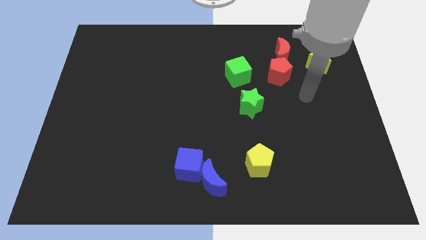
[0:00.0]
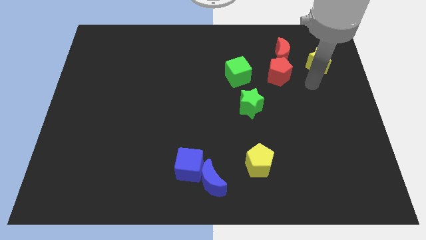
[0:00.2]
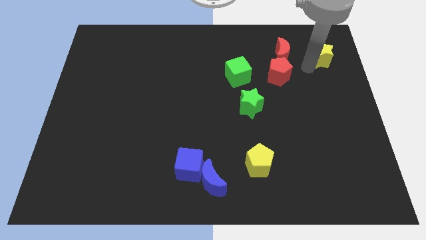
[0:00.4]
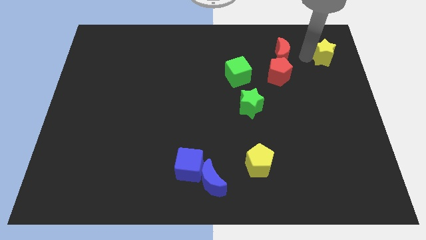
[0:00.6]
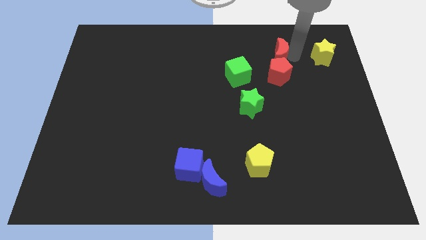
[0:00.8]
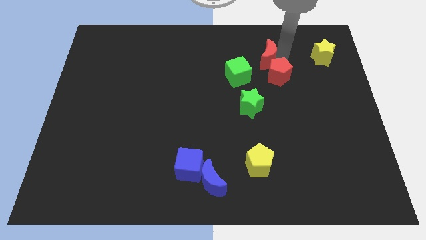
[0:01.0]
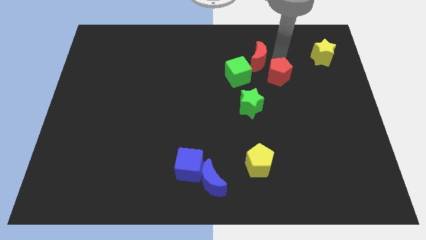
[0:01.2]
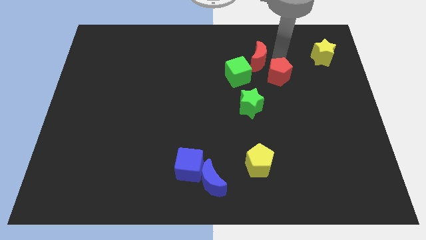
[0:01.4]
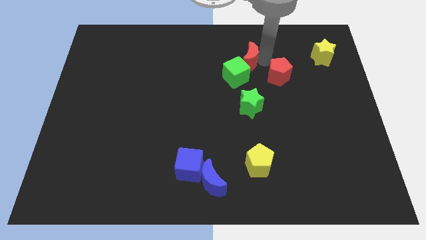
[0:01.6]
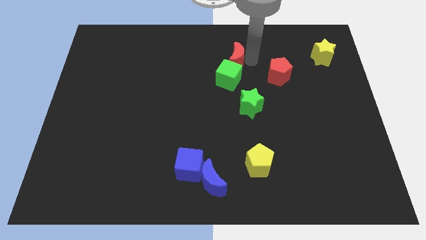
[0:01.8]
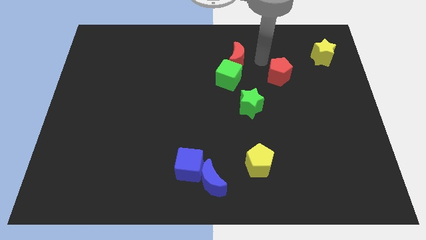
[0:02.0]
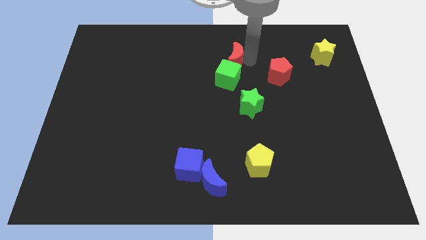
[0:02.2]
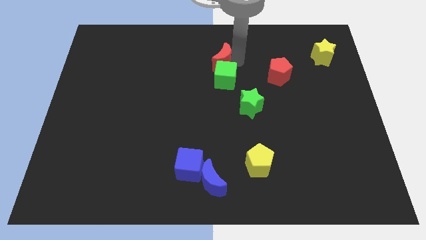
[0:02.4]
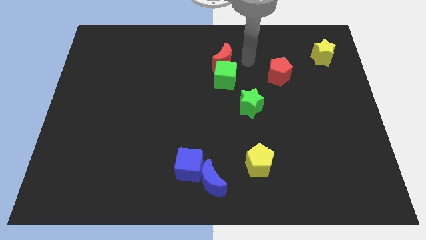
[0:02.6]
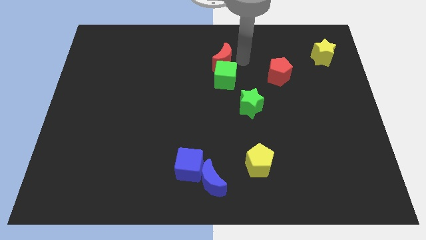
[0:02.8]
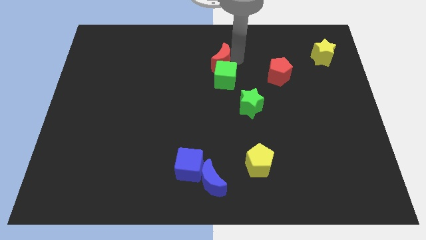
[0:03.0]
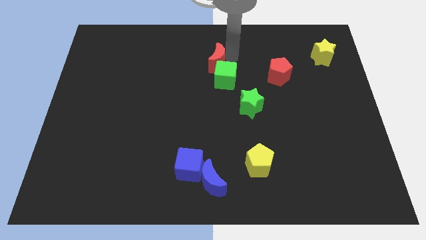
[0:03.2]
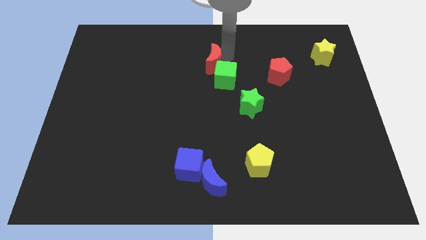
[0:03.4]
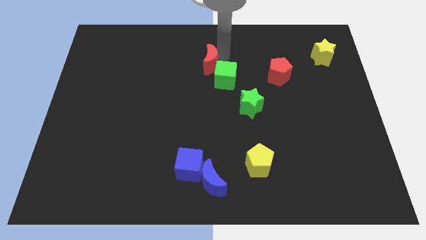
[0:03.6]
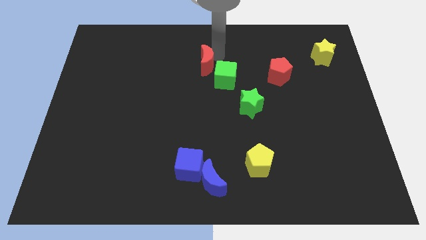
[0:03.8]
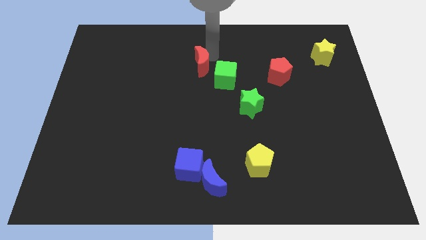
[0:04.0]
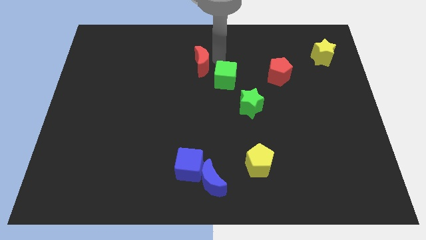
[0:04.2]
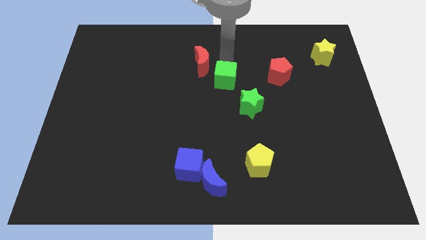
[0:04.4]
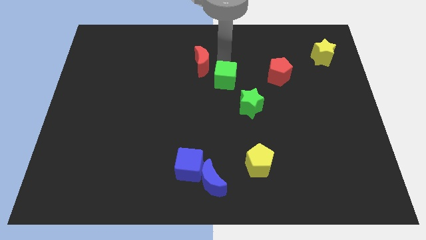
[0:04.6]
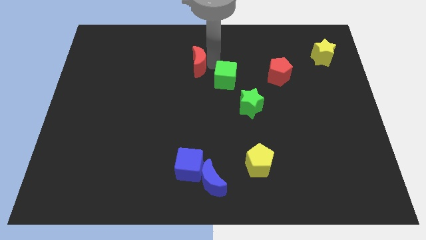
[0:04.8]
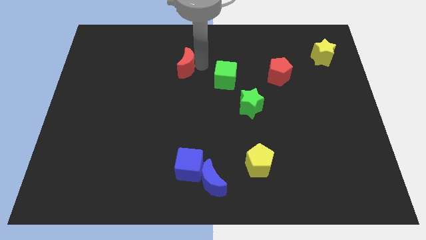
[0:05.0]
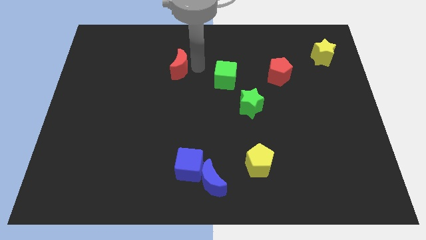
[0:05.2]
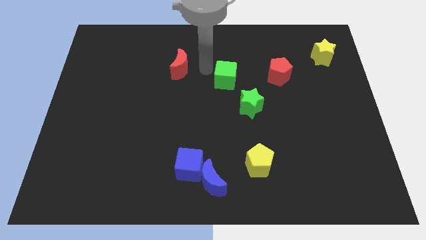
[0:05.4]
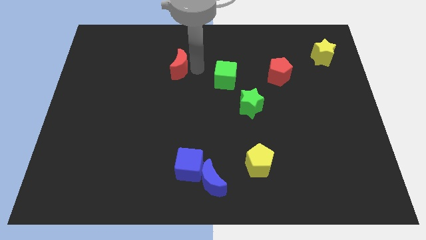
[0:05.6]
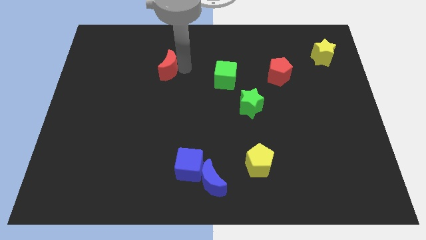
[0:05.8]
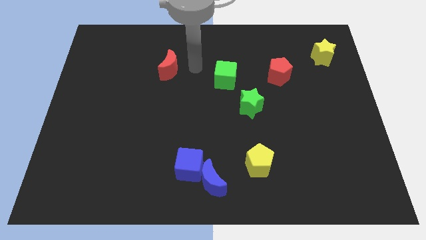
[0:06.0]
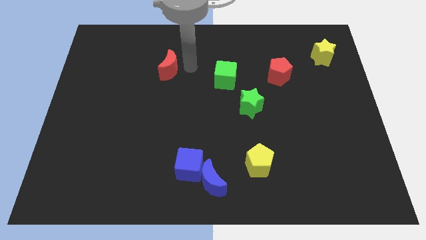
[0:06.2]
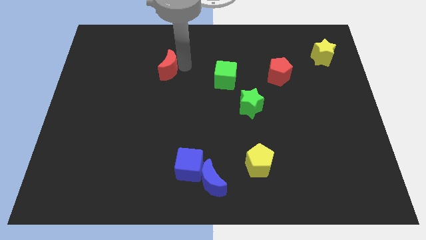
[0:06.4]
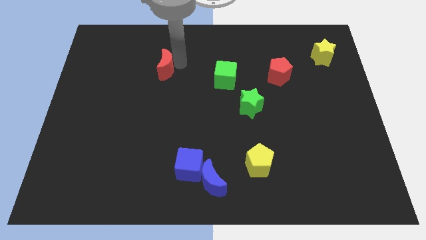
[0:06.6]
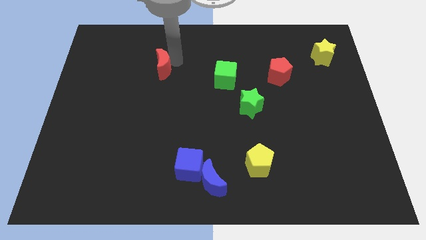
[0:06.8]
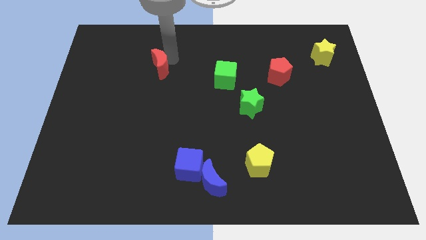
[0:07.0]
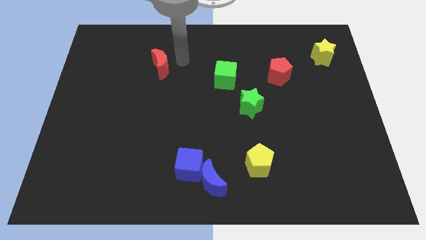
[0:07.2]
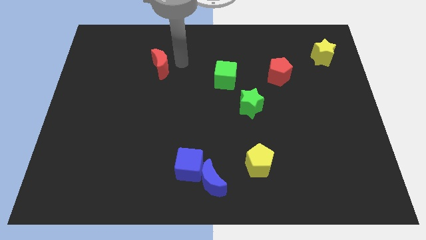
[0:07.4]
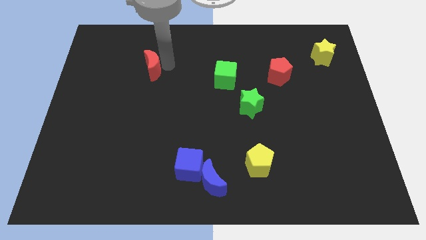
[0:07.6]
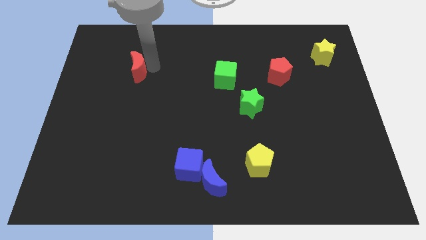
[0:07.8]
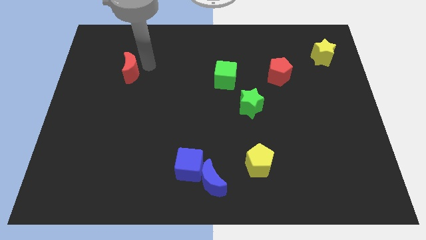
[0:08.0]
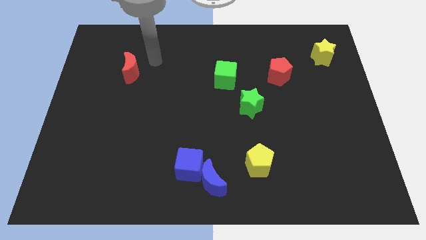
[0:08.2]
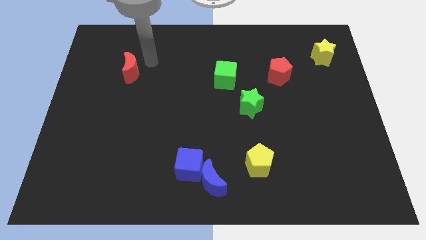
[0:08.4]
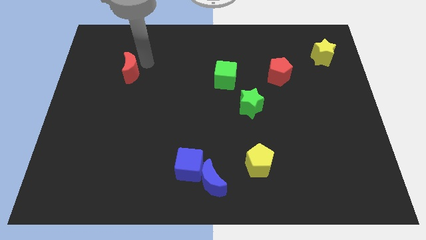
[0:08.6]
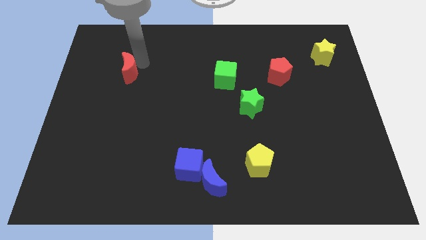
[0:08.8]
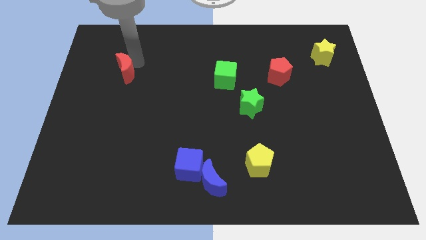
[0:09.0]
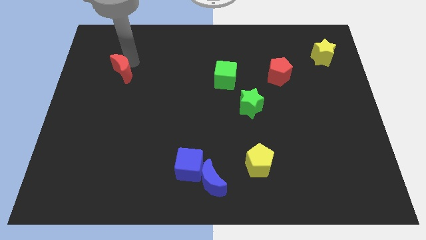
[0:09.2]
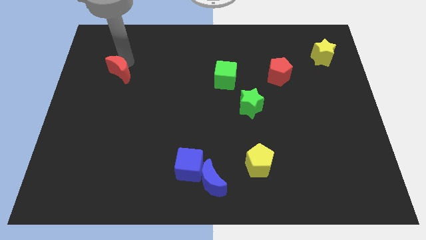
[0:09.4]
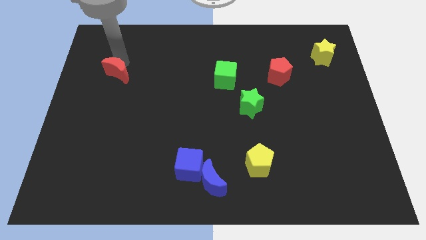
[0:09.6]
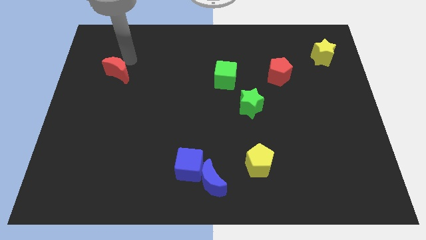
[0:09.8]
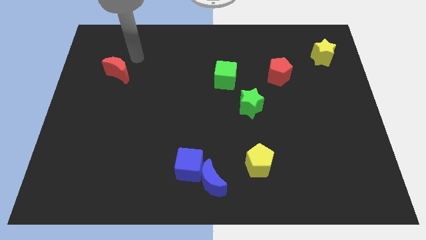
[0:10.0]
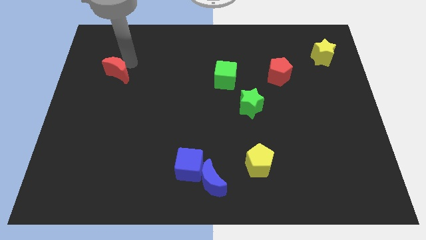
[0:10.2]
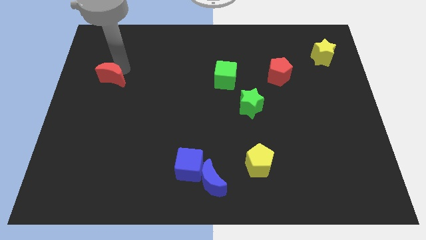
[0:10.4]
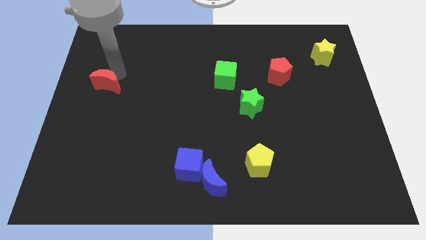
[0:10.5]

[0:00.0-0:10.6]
put the red moon to the center left
